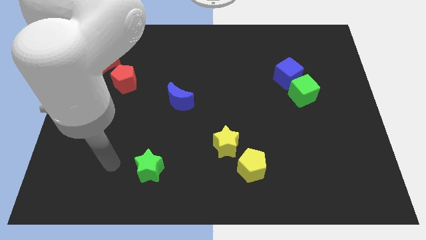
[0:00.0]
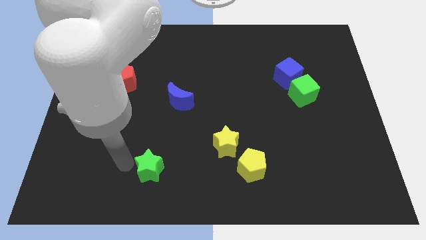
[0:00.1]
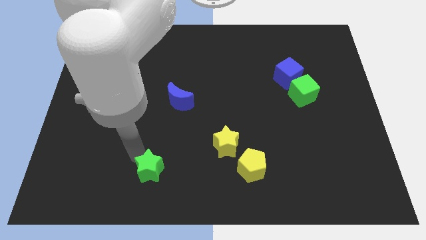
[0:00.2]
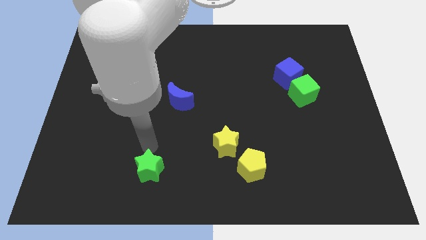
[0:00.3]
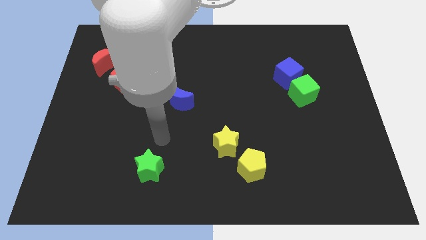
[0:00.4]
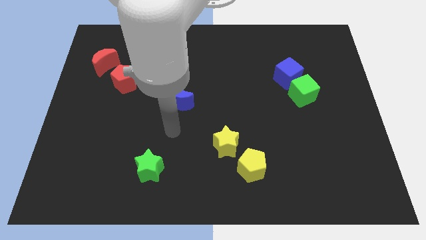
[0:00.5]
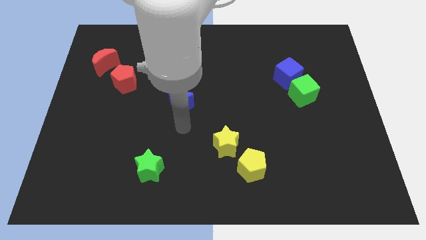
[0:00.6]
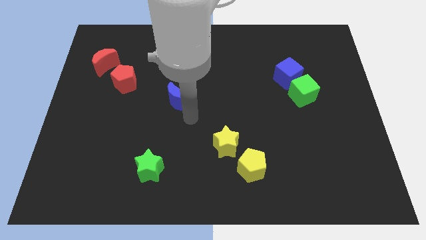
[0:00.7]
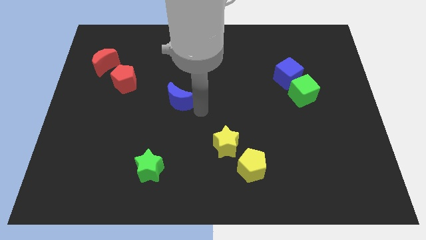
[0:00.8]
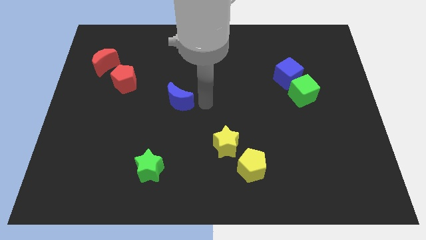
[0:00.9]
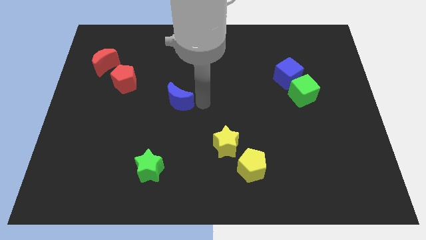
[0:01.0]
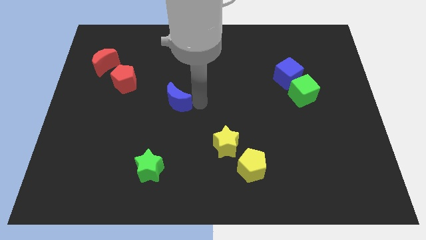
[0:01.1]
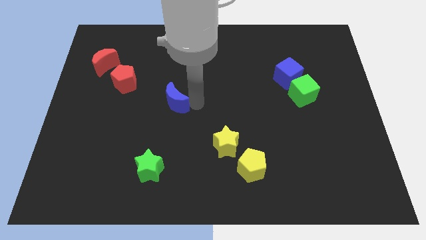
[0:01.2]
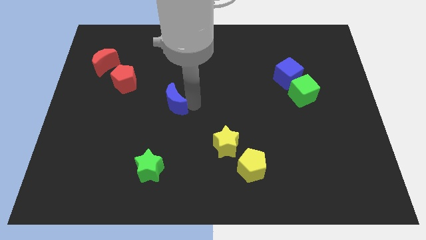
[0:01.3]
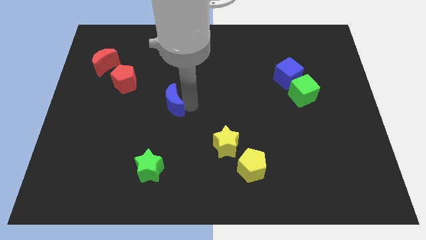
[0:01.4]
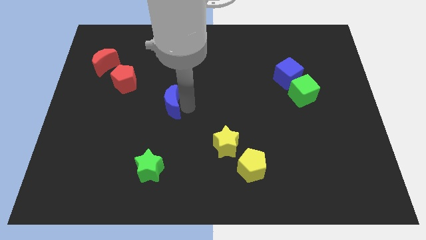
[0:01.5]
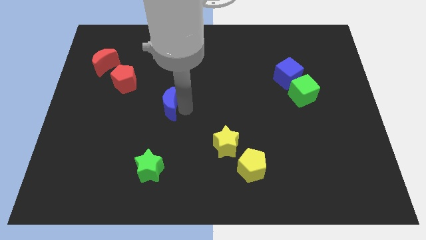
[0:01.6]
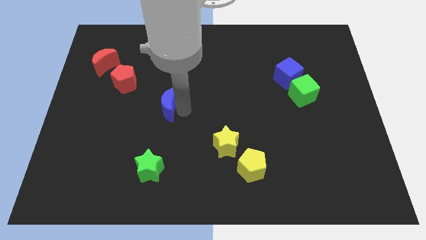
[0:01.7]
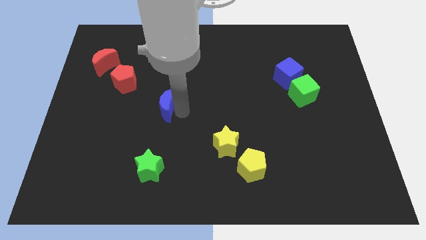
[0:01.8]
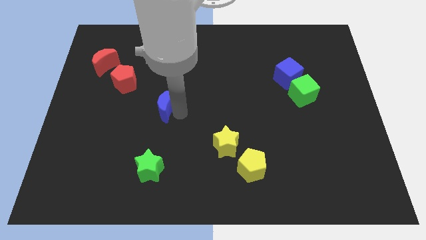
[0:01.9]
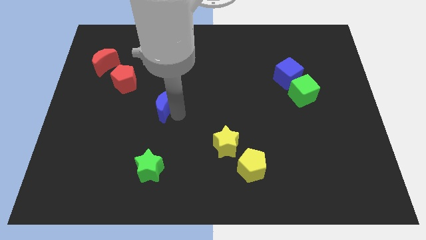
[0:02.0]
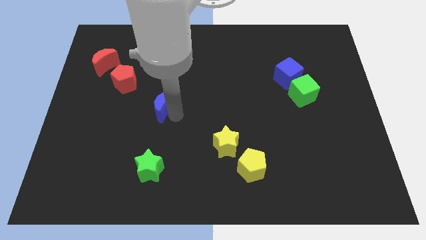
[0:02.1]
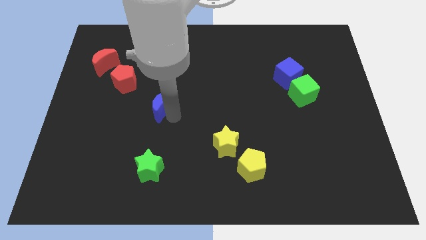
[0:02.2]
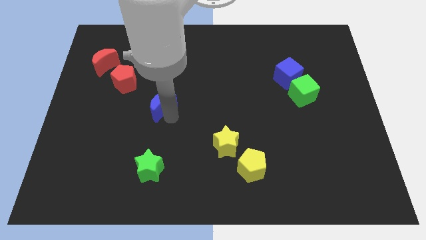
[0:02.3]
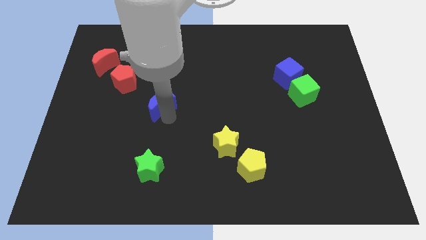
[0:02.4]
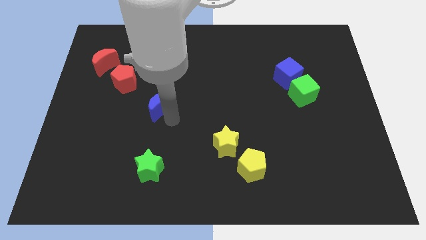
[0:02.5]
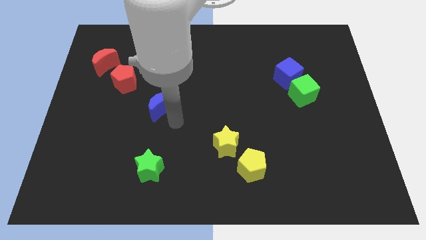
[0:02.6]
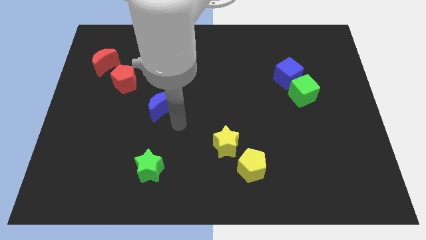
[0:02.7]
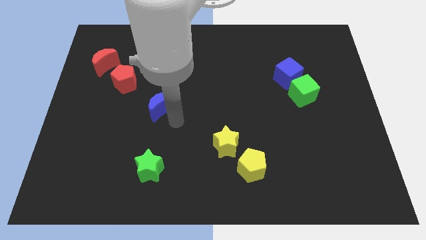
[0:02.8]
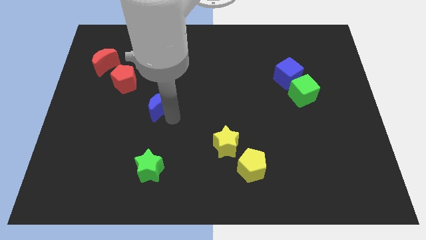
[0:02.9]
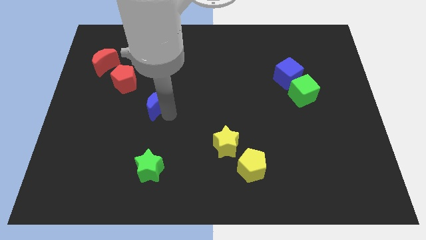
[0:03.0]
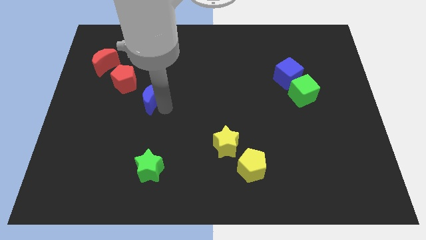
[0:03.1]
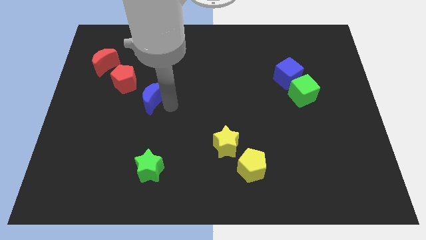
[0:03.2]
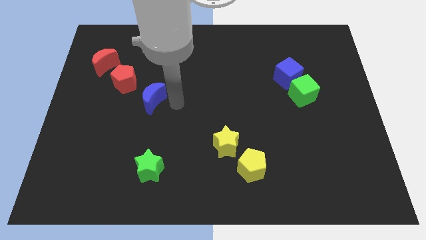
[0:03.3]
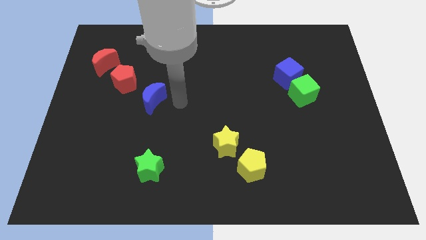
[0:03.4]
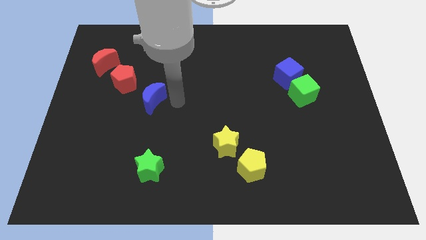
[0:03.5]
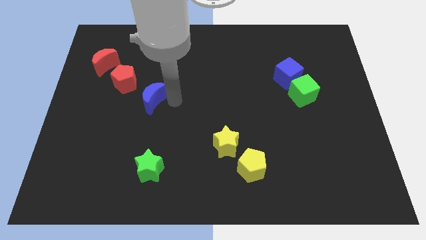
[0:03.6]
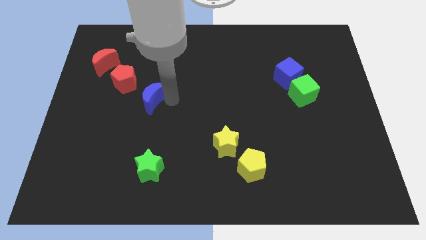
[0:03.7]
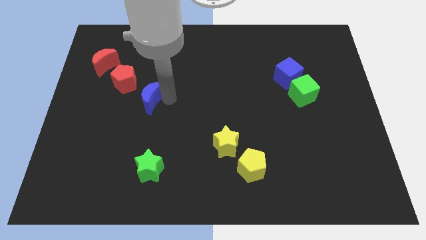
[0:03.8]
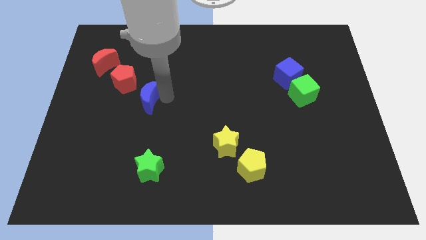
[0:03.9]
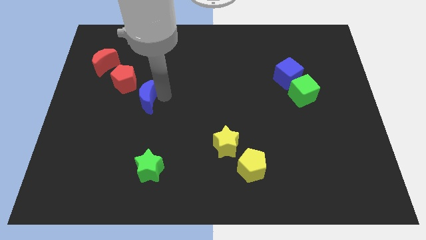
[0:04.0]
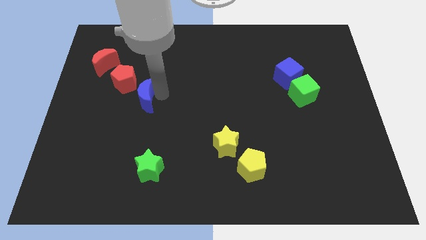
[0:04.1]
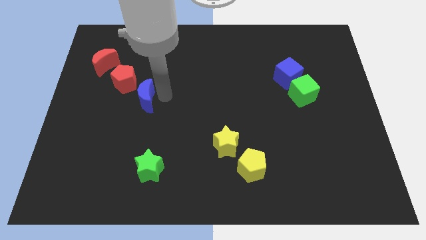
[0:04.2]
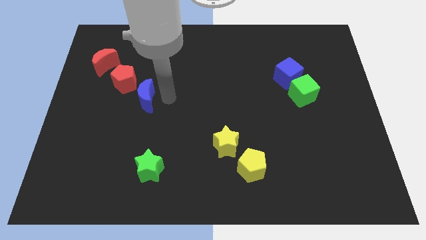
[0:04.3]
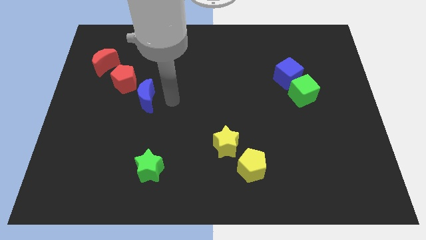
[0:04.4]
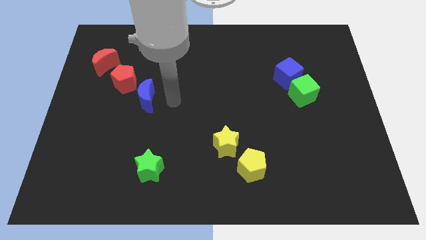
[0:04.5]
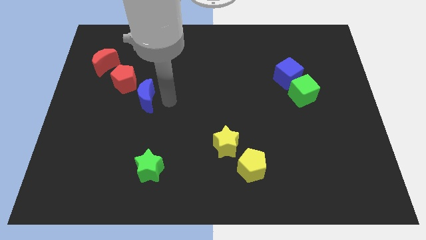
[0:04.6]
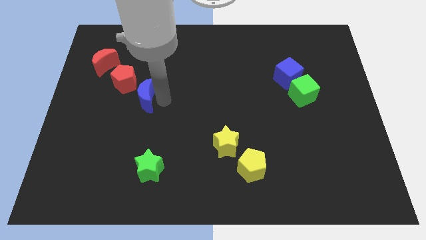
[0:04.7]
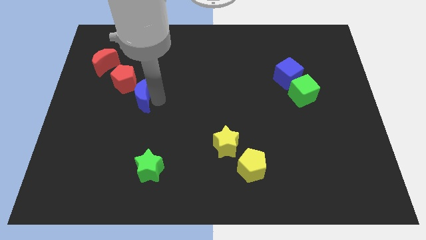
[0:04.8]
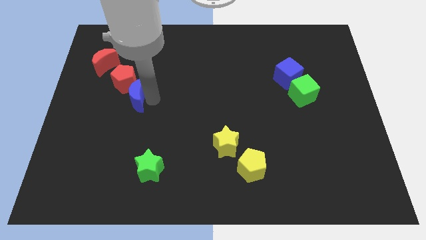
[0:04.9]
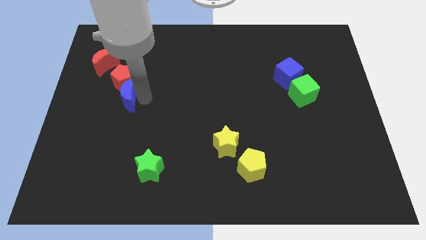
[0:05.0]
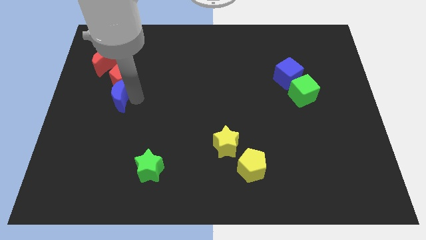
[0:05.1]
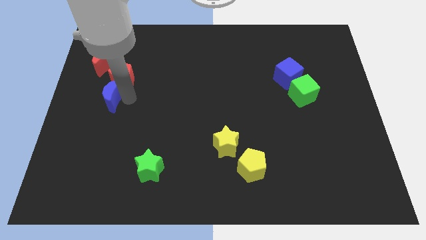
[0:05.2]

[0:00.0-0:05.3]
slide the blue moon below the red moon

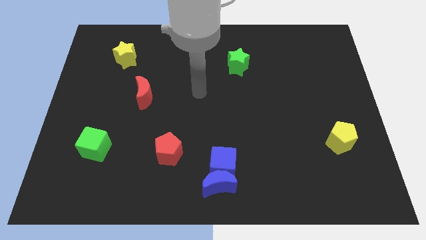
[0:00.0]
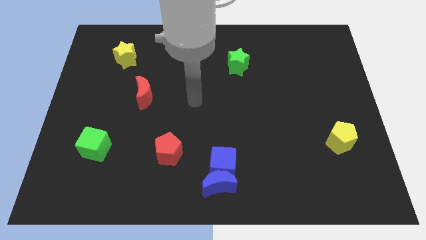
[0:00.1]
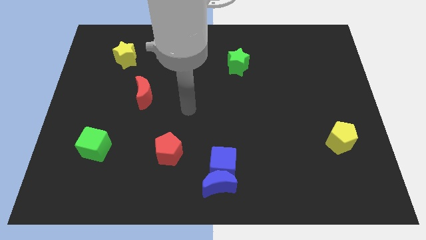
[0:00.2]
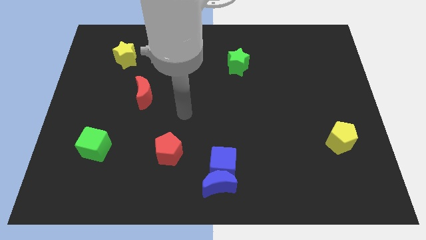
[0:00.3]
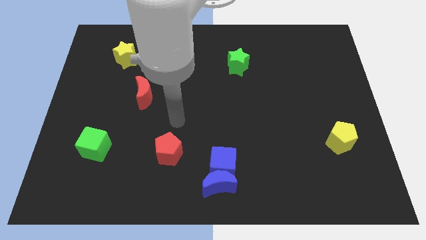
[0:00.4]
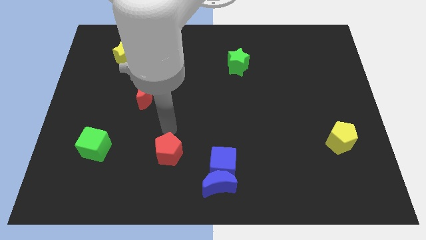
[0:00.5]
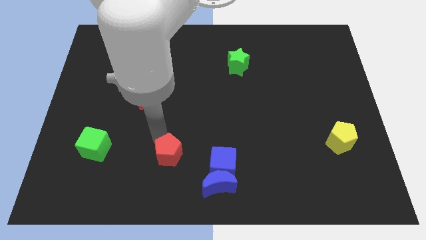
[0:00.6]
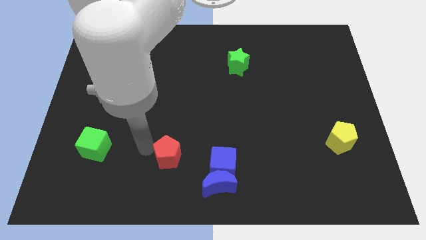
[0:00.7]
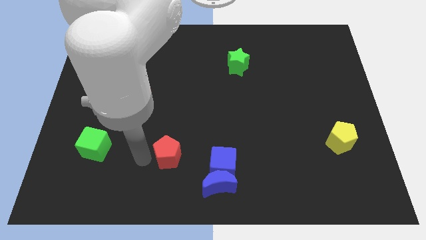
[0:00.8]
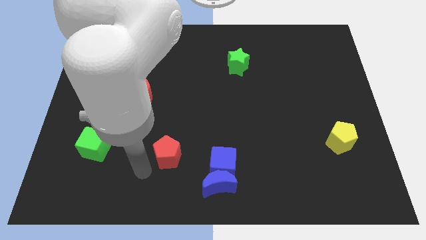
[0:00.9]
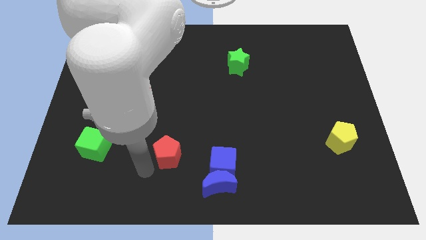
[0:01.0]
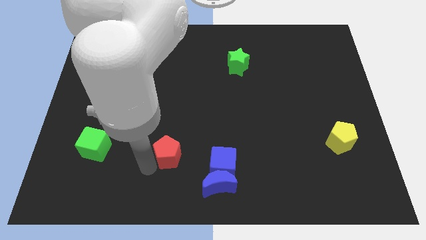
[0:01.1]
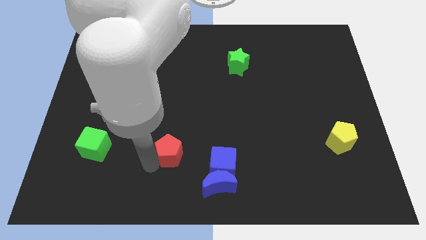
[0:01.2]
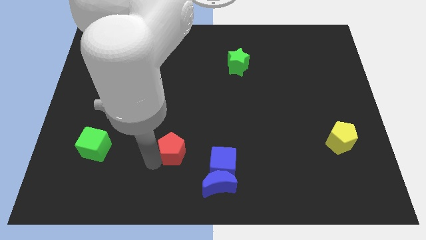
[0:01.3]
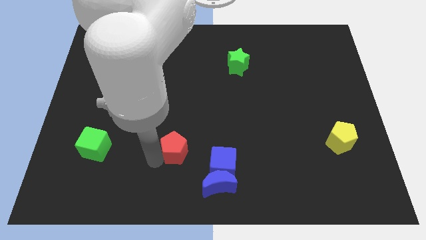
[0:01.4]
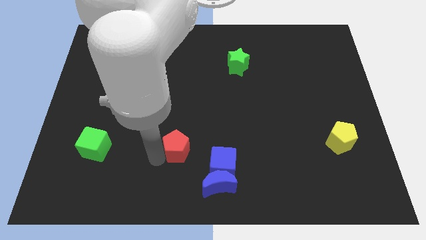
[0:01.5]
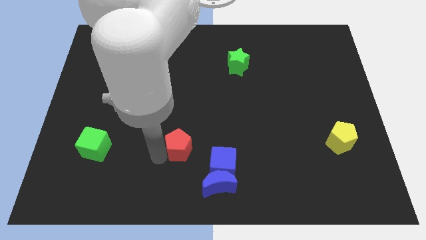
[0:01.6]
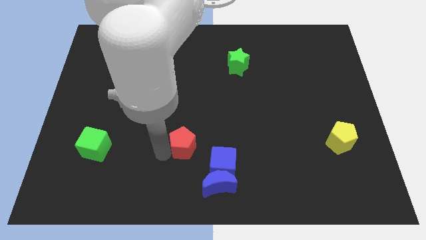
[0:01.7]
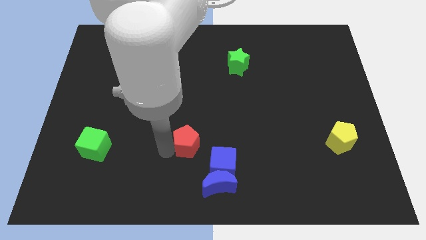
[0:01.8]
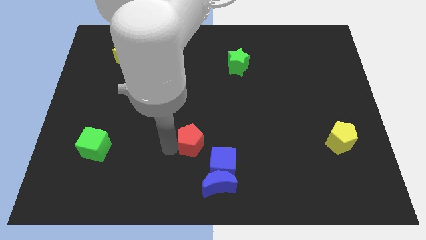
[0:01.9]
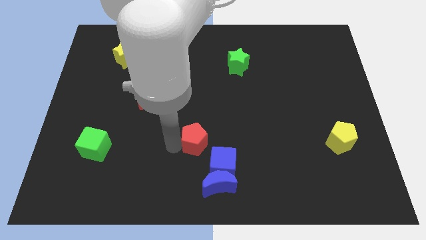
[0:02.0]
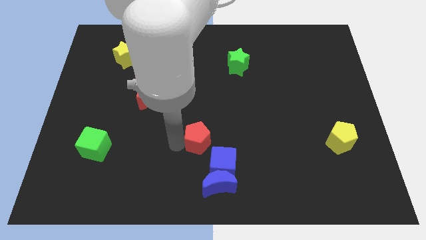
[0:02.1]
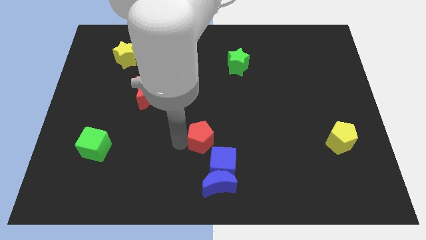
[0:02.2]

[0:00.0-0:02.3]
move the red pentagon above the blue cube
